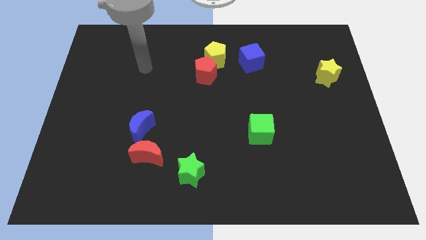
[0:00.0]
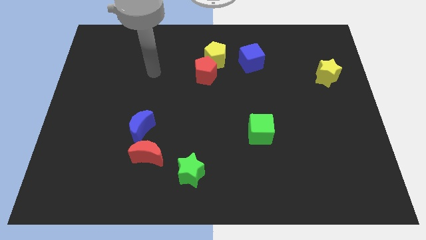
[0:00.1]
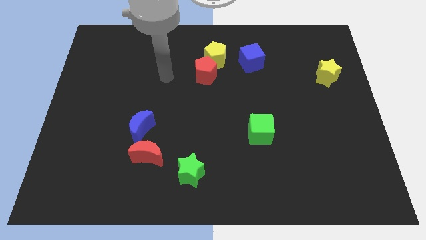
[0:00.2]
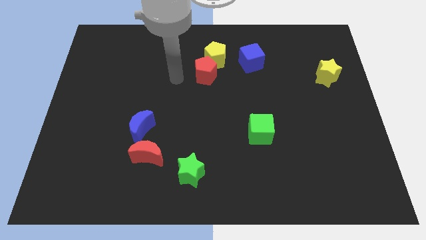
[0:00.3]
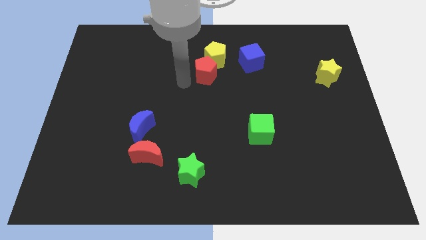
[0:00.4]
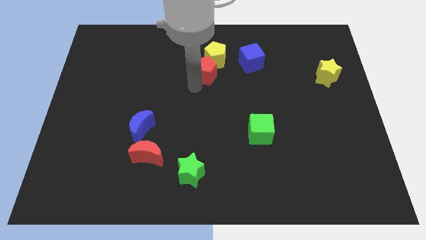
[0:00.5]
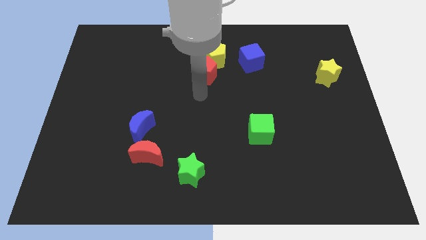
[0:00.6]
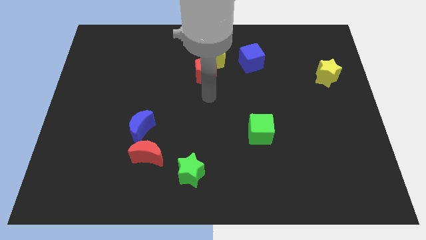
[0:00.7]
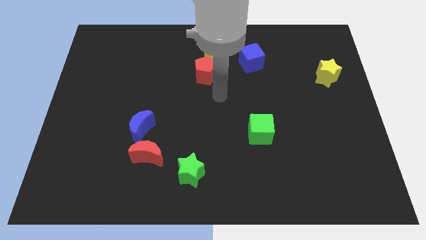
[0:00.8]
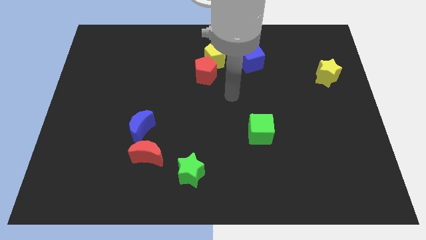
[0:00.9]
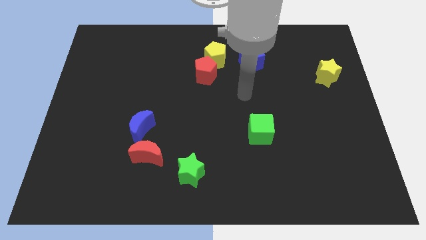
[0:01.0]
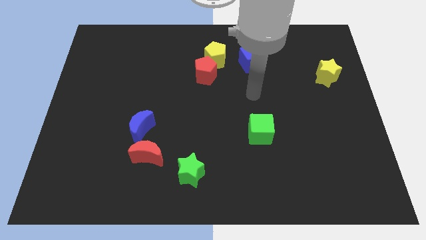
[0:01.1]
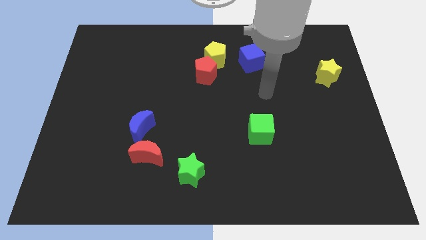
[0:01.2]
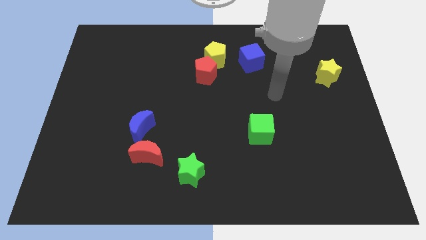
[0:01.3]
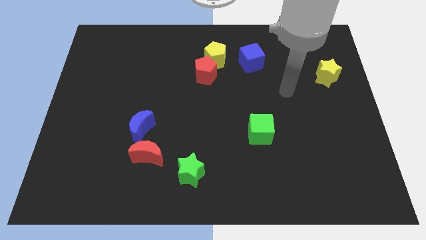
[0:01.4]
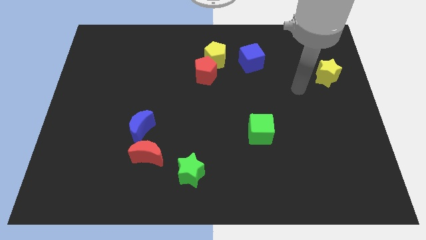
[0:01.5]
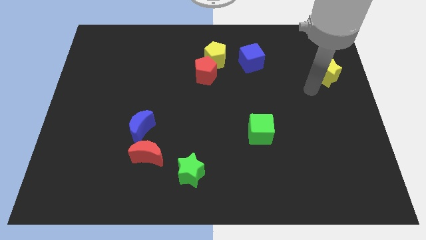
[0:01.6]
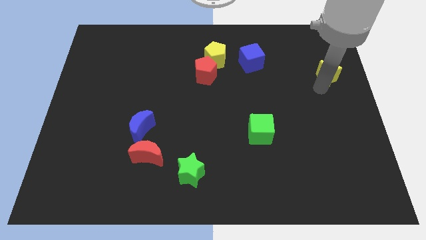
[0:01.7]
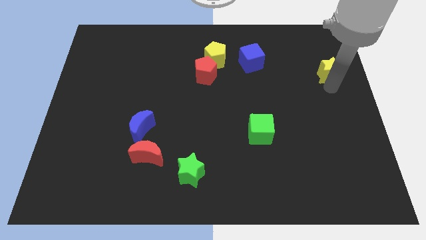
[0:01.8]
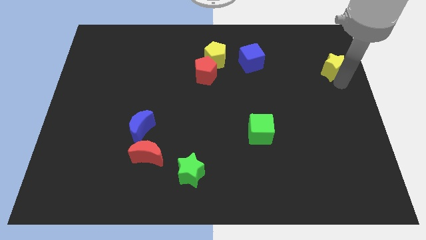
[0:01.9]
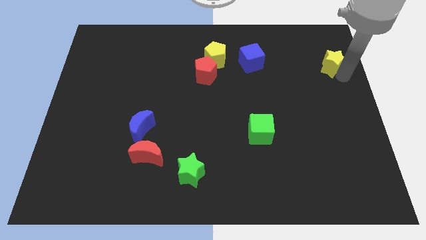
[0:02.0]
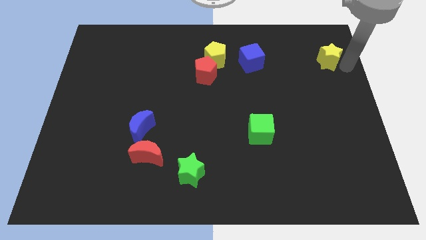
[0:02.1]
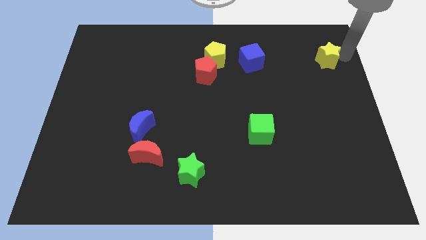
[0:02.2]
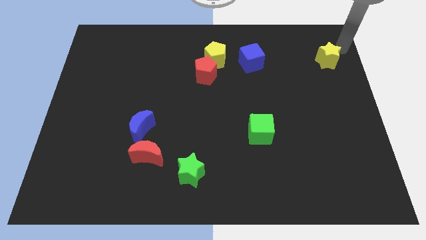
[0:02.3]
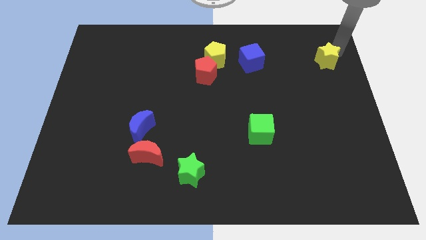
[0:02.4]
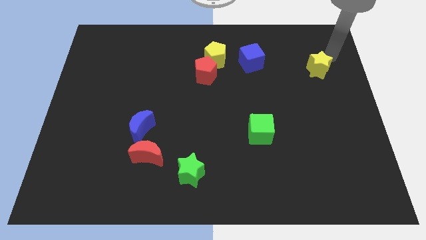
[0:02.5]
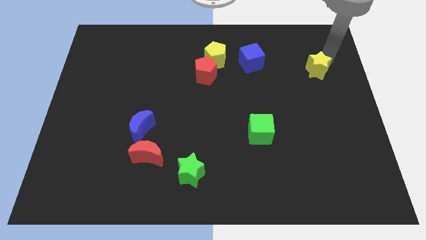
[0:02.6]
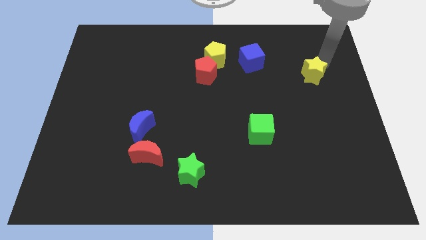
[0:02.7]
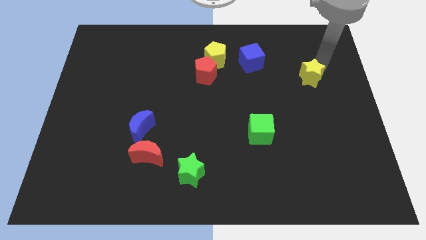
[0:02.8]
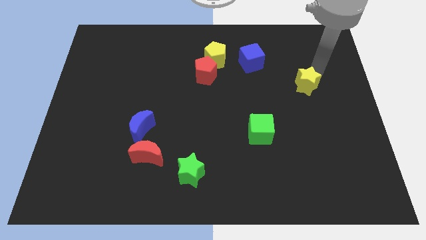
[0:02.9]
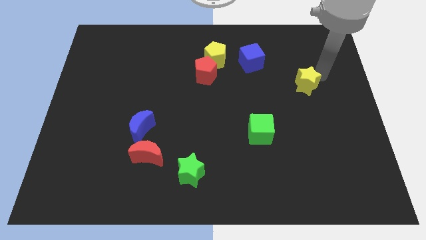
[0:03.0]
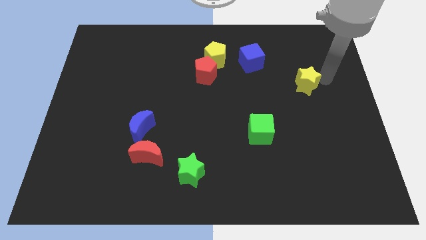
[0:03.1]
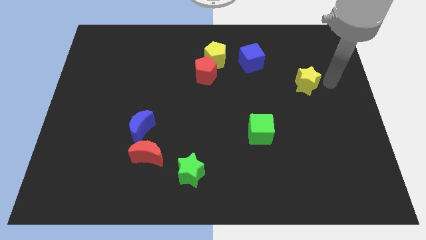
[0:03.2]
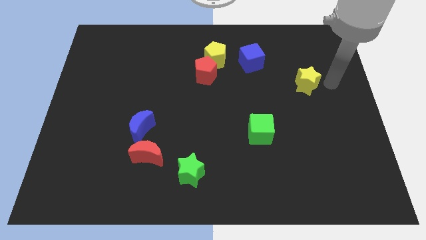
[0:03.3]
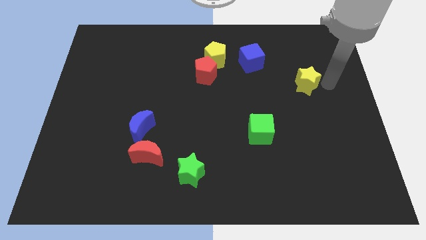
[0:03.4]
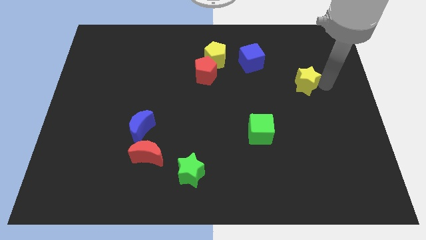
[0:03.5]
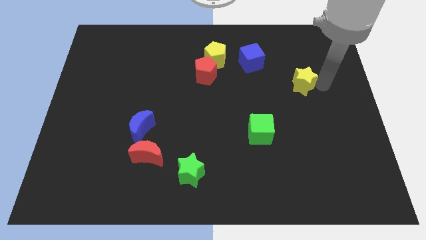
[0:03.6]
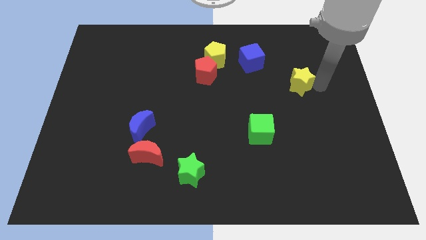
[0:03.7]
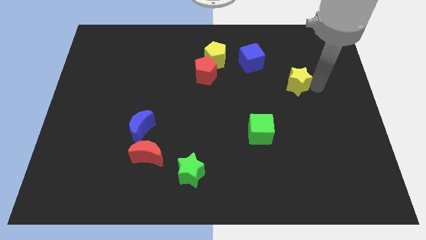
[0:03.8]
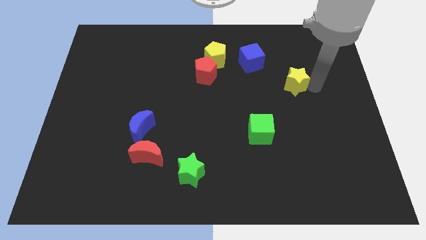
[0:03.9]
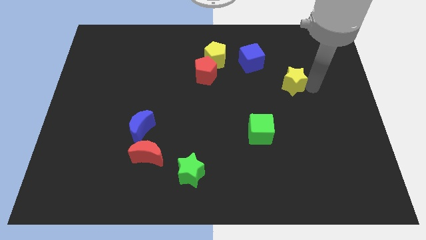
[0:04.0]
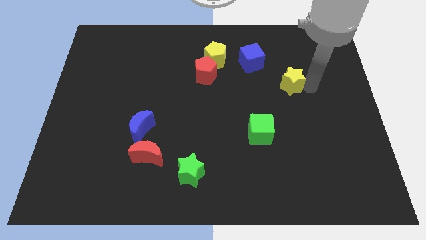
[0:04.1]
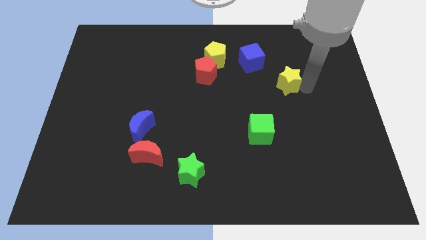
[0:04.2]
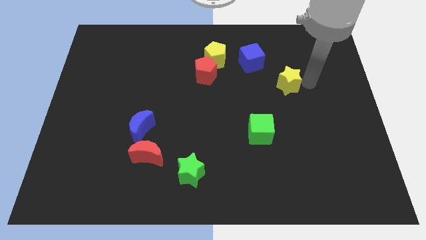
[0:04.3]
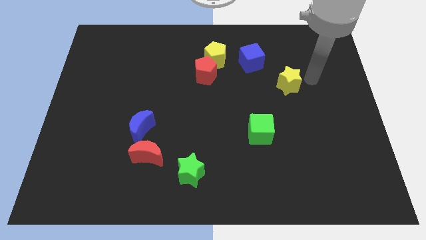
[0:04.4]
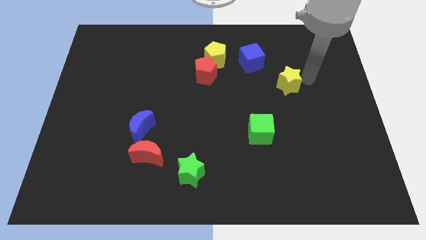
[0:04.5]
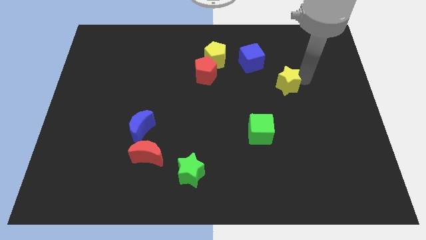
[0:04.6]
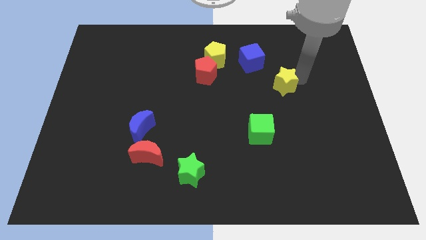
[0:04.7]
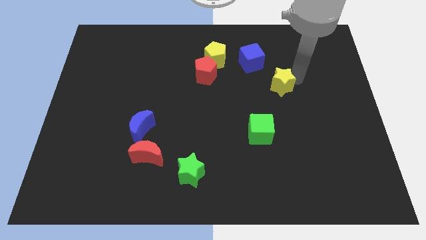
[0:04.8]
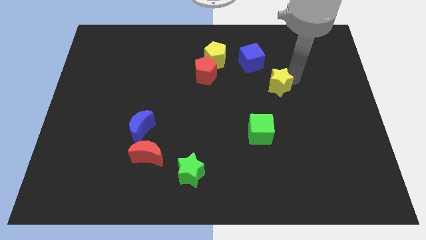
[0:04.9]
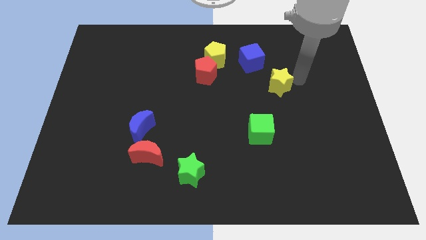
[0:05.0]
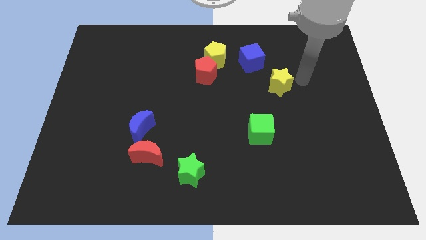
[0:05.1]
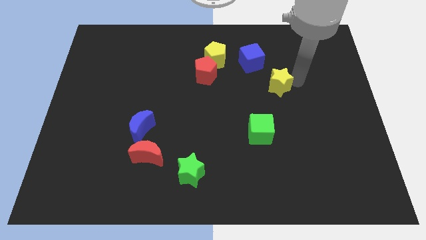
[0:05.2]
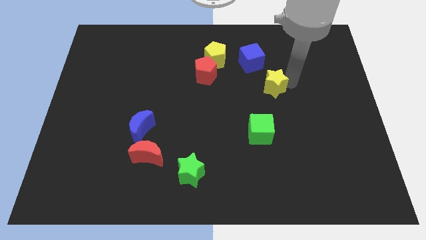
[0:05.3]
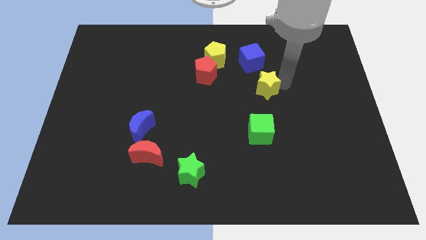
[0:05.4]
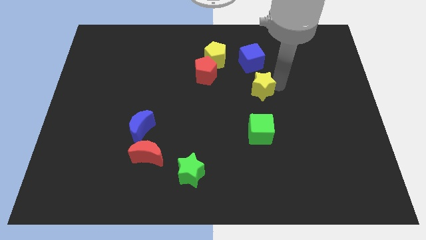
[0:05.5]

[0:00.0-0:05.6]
slide the yellow star to the middle

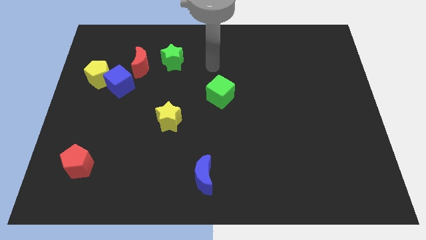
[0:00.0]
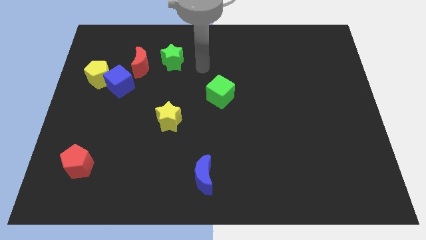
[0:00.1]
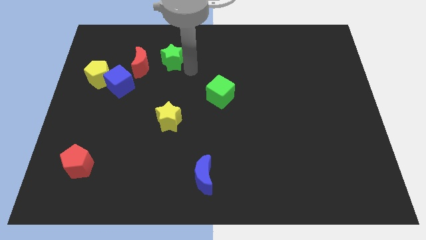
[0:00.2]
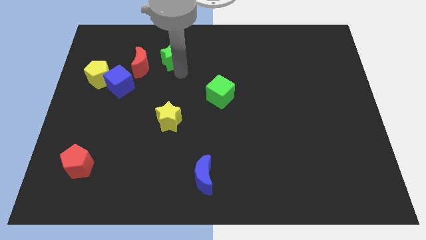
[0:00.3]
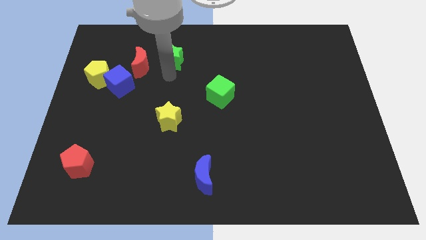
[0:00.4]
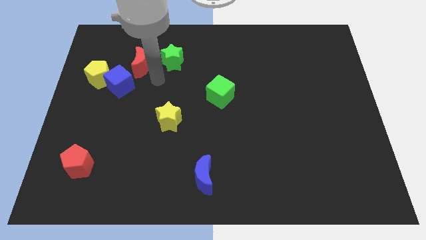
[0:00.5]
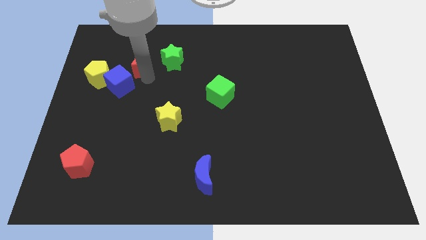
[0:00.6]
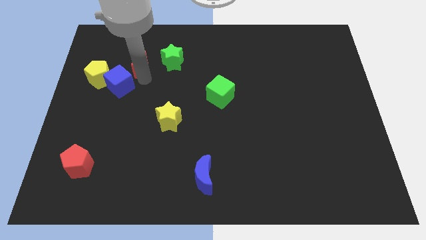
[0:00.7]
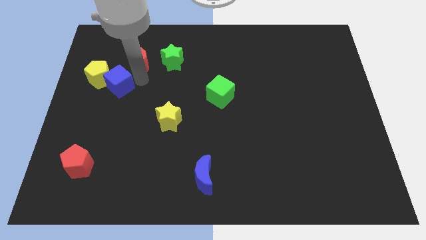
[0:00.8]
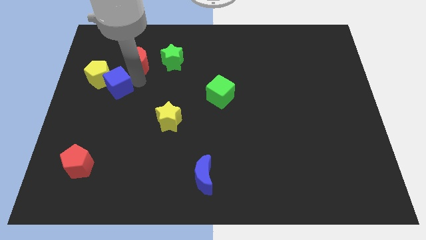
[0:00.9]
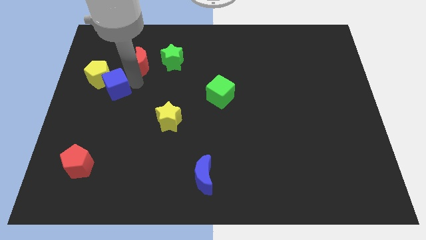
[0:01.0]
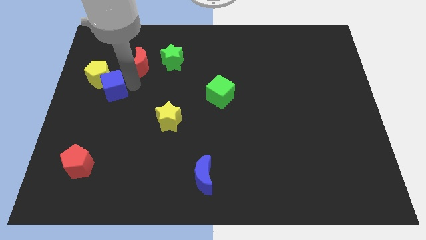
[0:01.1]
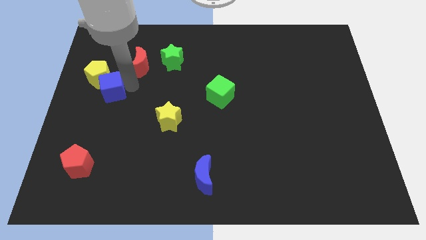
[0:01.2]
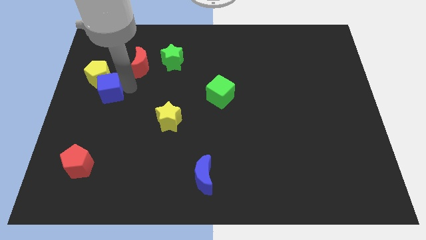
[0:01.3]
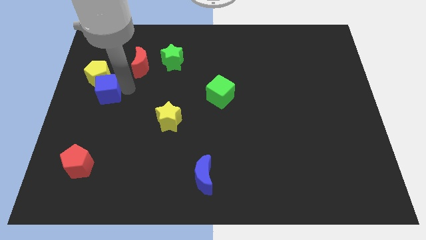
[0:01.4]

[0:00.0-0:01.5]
slide the blue cube to the left side
